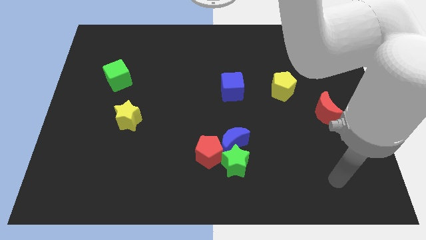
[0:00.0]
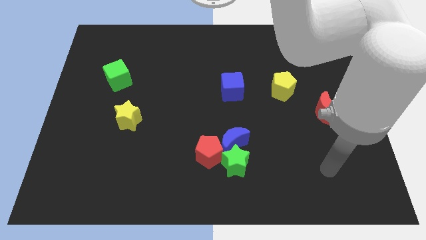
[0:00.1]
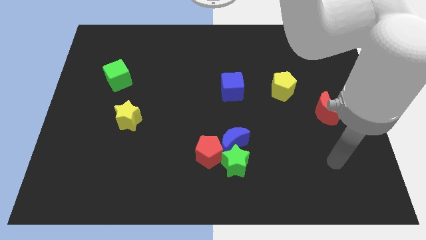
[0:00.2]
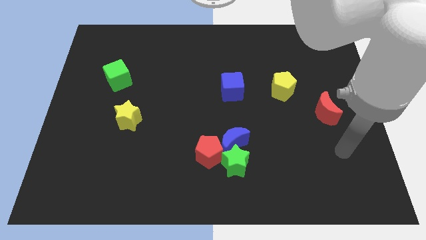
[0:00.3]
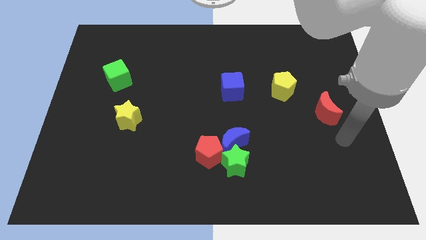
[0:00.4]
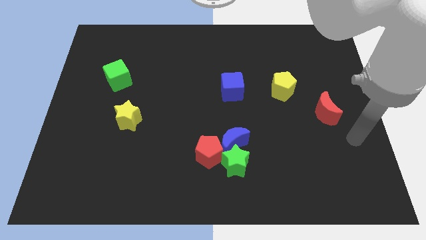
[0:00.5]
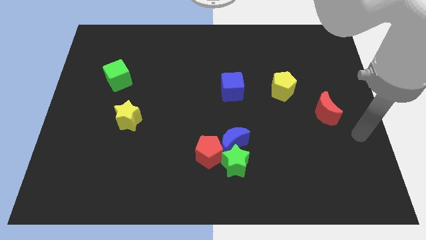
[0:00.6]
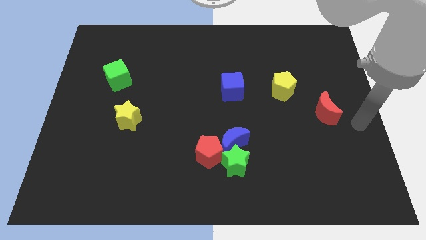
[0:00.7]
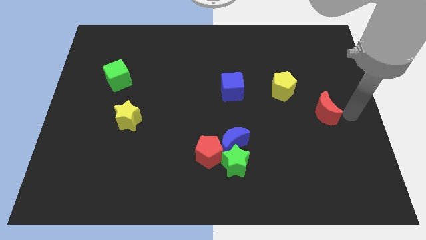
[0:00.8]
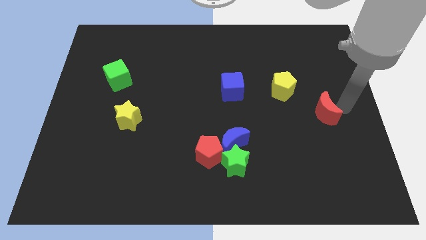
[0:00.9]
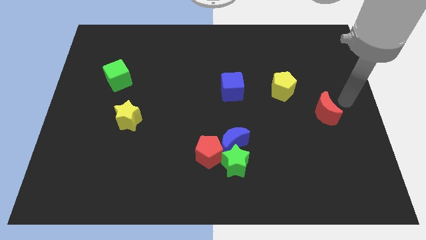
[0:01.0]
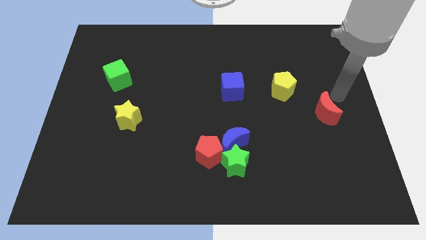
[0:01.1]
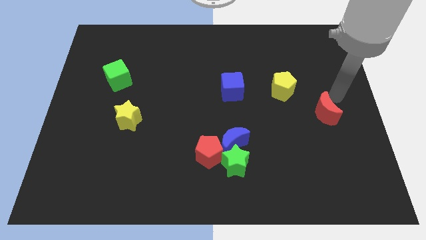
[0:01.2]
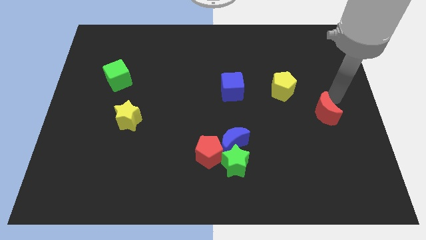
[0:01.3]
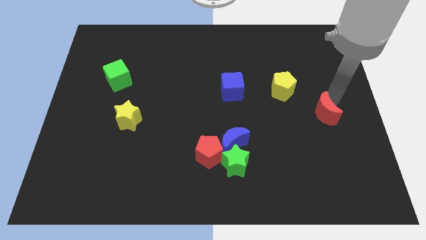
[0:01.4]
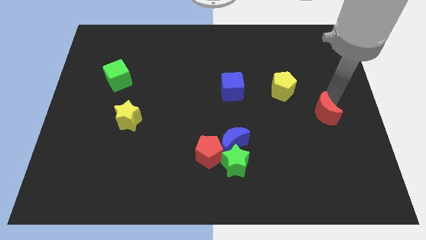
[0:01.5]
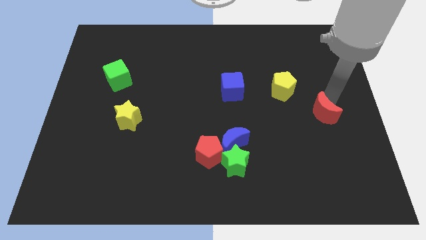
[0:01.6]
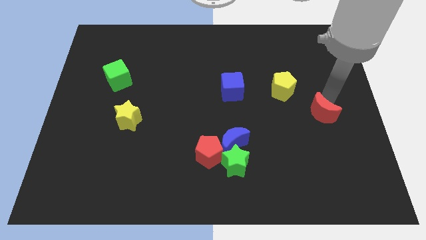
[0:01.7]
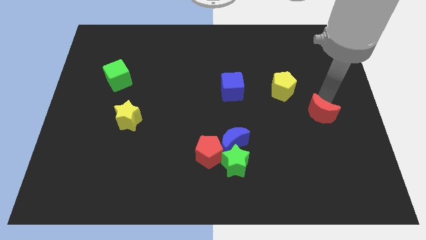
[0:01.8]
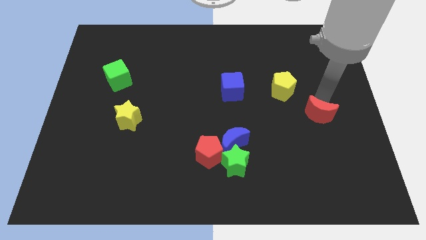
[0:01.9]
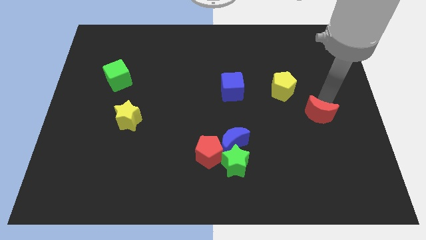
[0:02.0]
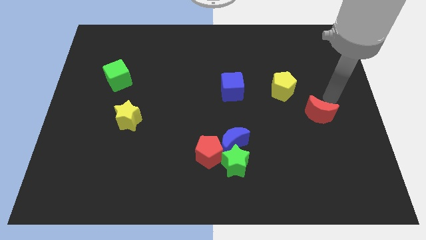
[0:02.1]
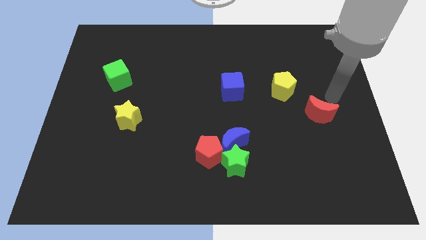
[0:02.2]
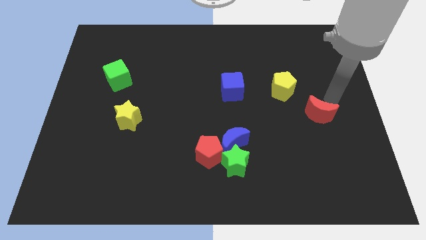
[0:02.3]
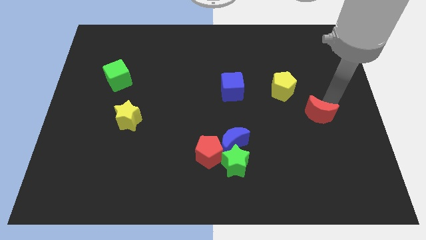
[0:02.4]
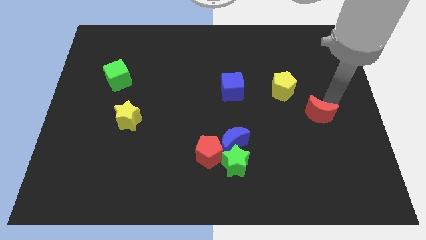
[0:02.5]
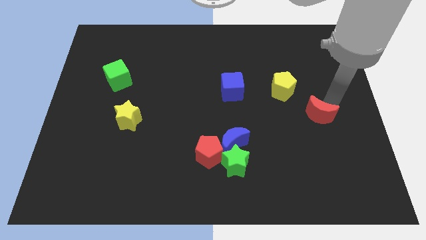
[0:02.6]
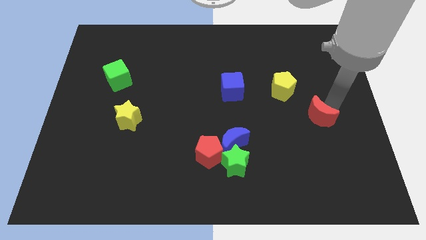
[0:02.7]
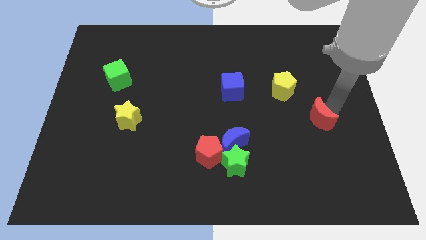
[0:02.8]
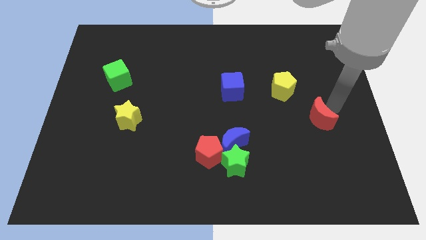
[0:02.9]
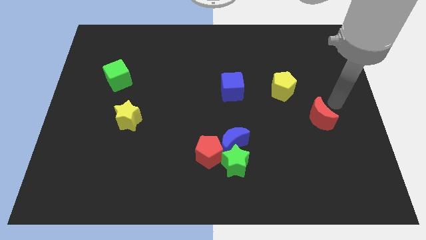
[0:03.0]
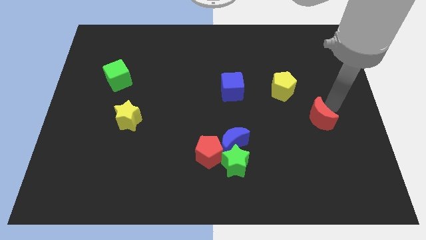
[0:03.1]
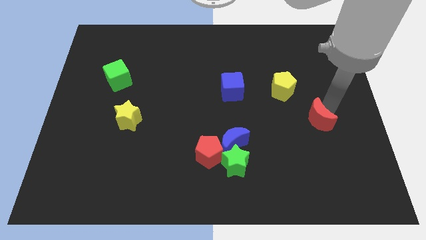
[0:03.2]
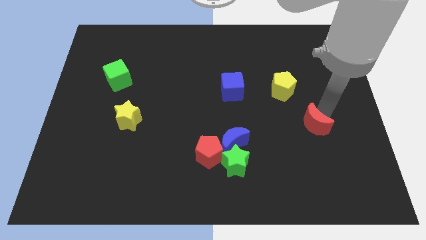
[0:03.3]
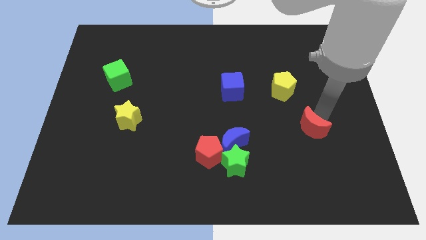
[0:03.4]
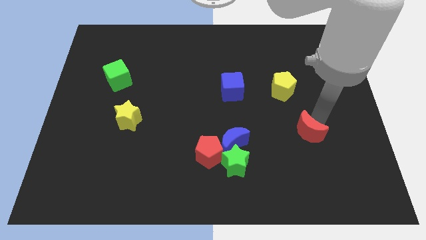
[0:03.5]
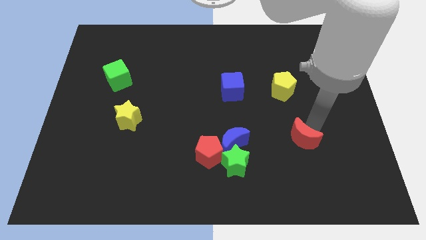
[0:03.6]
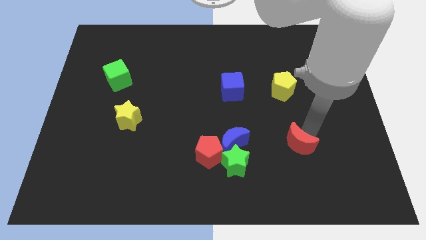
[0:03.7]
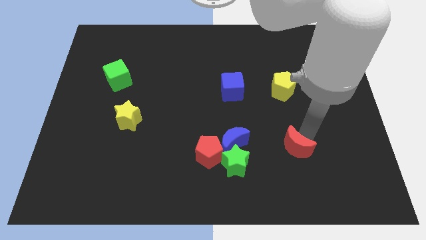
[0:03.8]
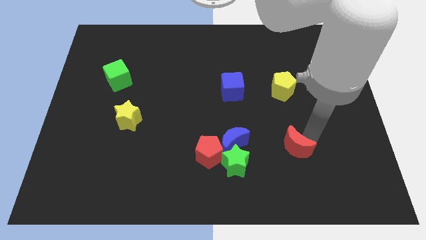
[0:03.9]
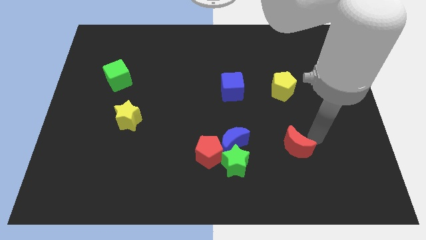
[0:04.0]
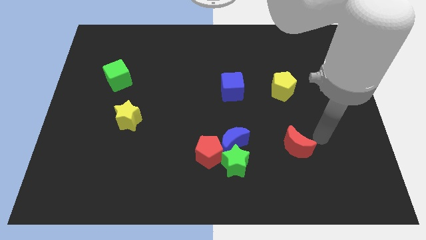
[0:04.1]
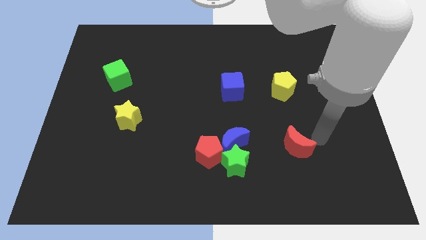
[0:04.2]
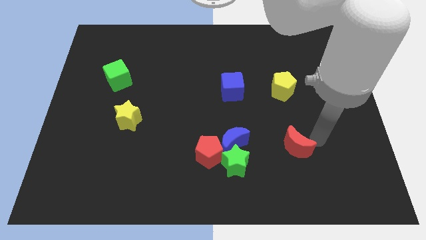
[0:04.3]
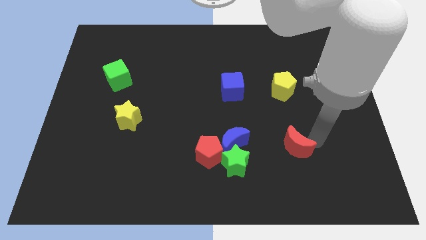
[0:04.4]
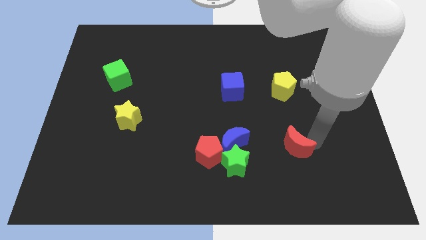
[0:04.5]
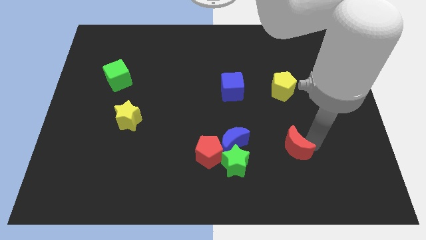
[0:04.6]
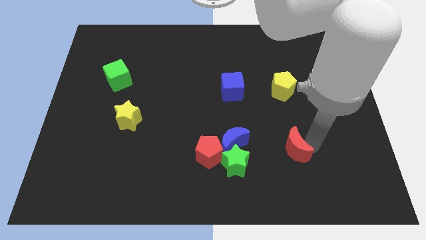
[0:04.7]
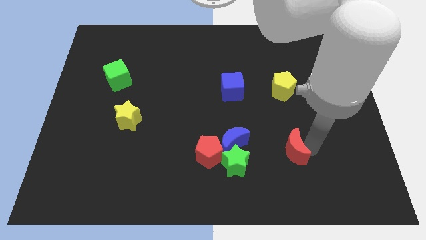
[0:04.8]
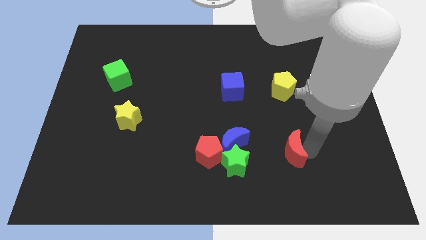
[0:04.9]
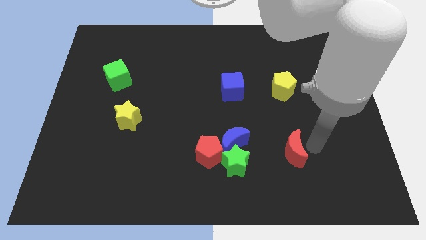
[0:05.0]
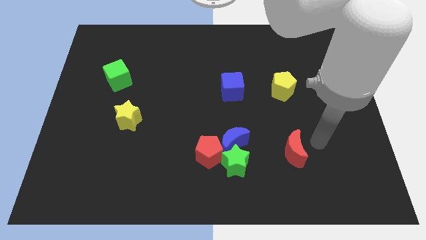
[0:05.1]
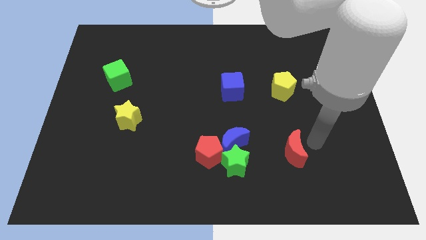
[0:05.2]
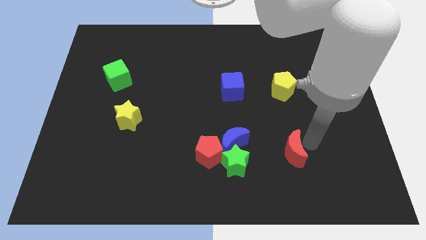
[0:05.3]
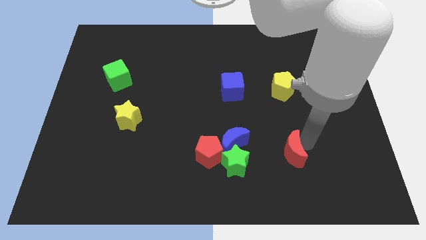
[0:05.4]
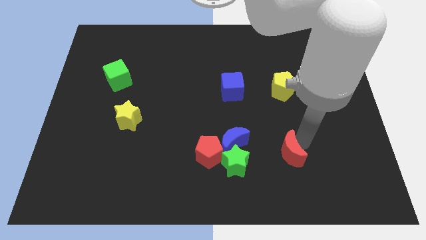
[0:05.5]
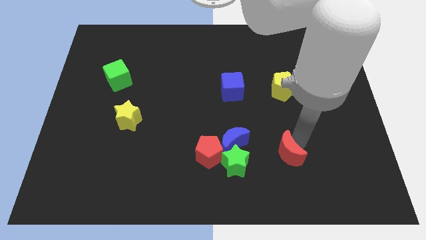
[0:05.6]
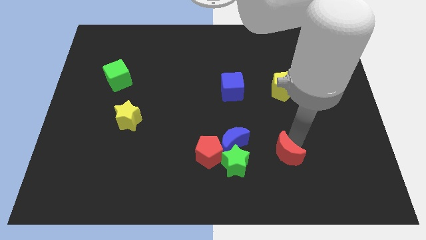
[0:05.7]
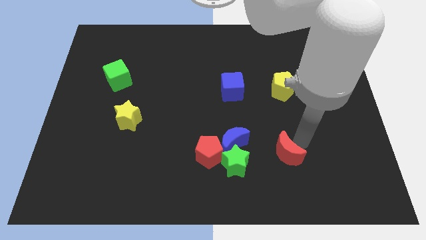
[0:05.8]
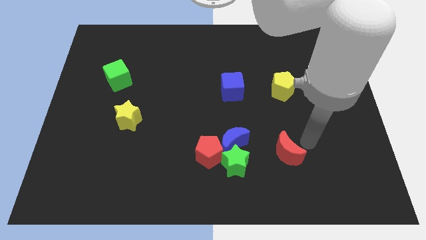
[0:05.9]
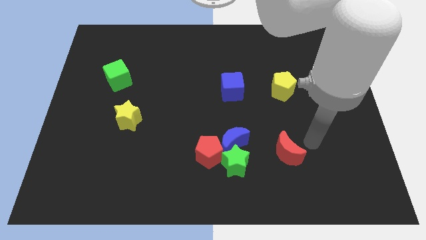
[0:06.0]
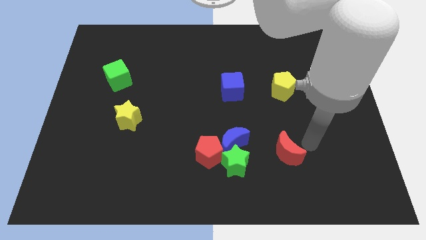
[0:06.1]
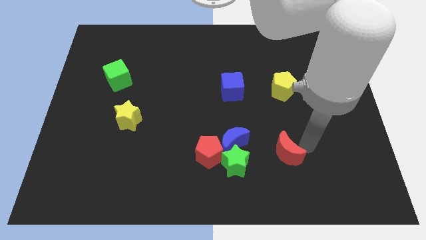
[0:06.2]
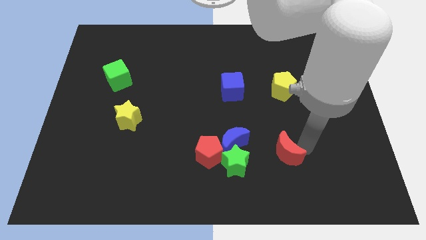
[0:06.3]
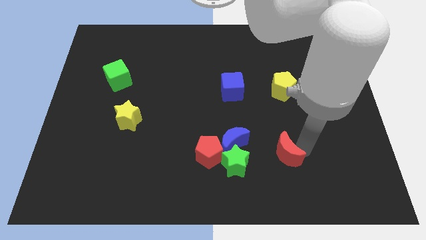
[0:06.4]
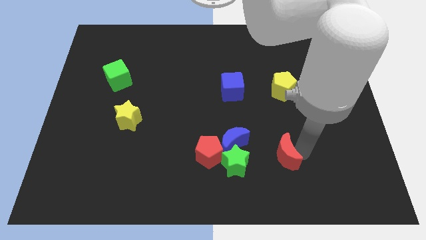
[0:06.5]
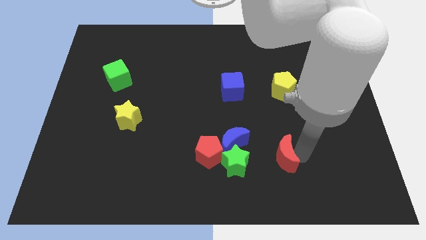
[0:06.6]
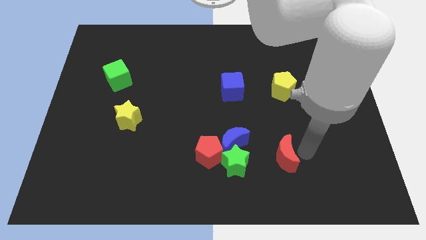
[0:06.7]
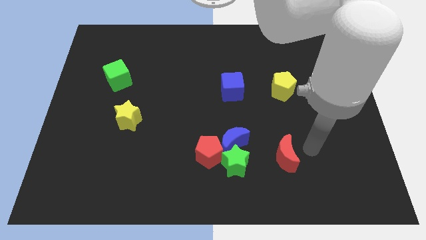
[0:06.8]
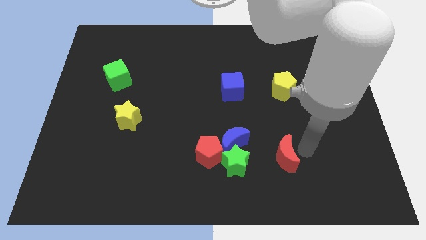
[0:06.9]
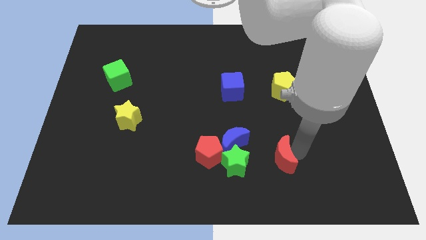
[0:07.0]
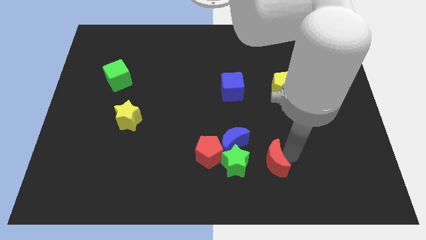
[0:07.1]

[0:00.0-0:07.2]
put the red moon to the bottom right of the blue moon
